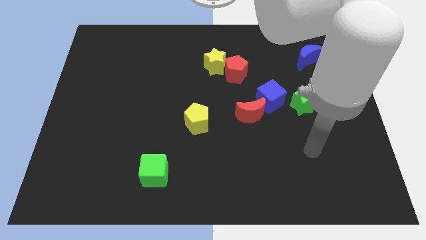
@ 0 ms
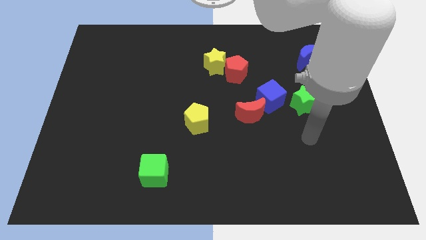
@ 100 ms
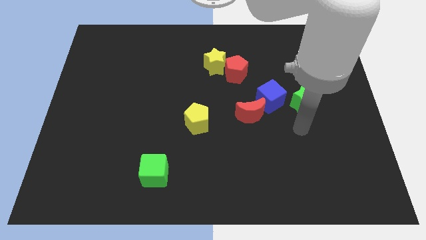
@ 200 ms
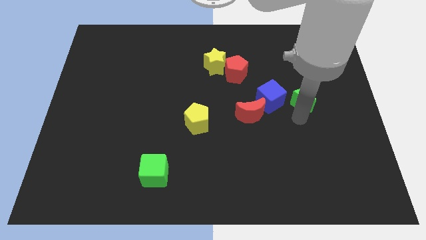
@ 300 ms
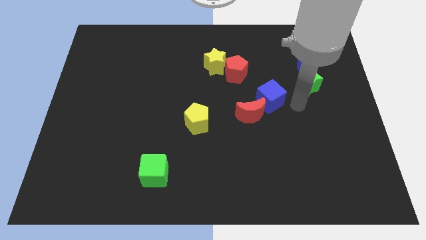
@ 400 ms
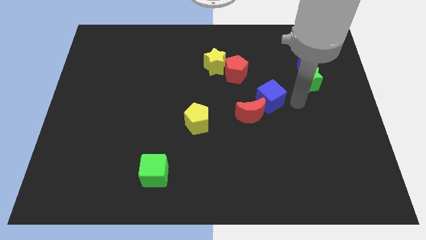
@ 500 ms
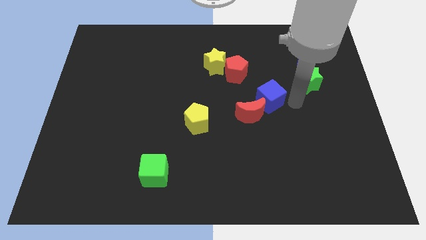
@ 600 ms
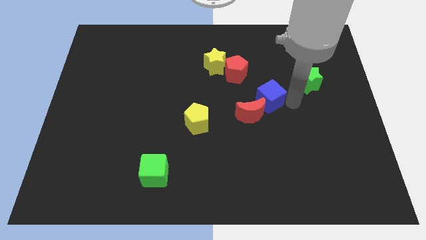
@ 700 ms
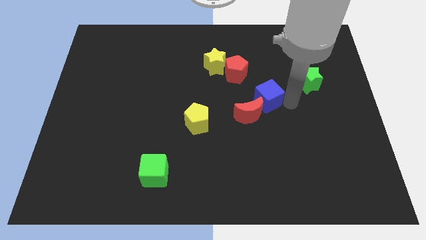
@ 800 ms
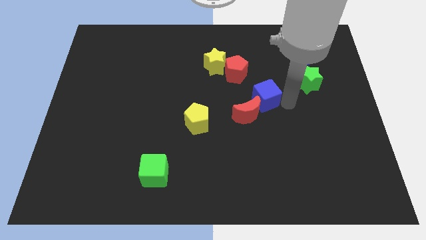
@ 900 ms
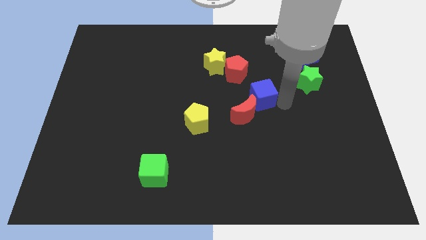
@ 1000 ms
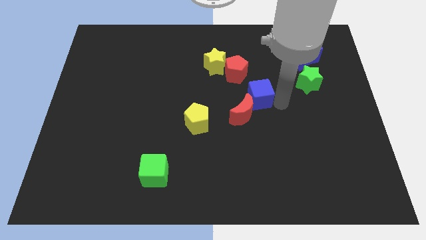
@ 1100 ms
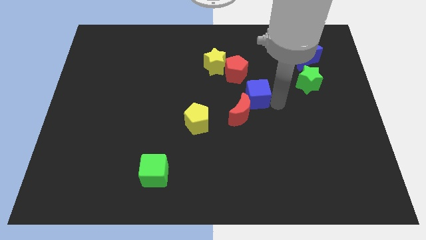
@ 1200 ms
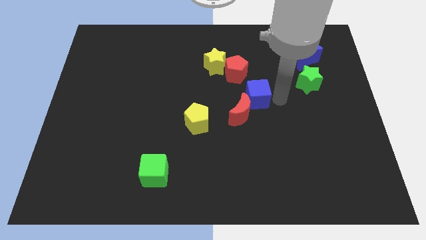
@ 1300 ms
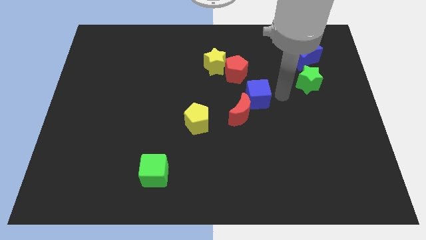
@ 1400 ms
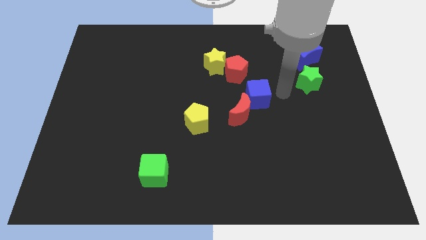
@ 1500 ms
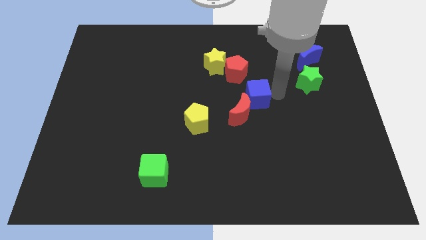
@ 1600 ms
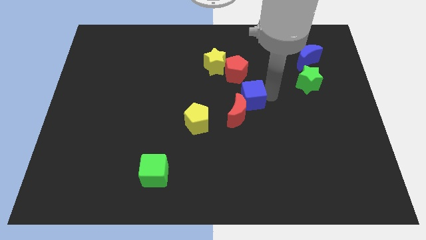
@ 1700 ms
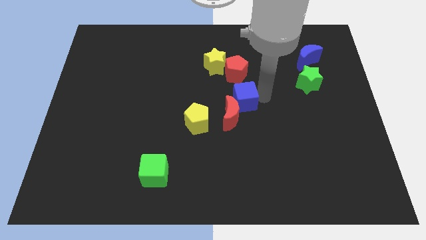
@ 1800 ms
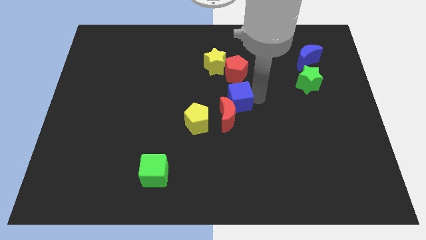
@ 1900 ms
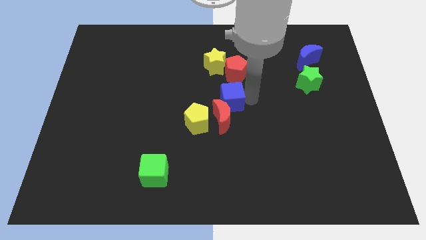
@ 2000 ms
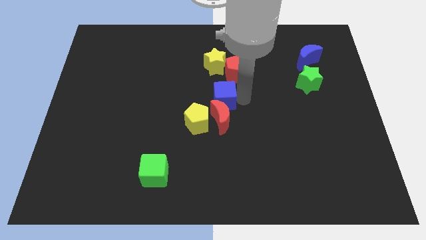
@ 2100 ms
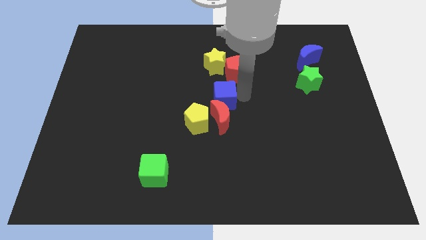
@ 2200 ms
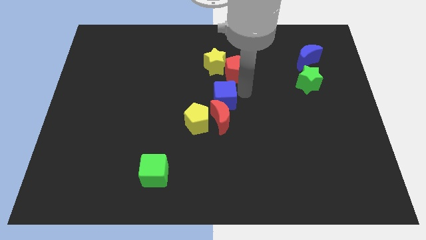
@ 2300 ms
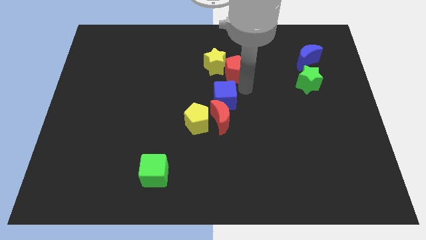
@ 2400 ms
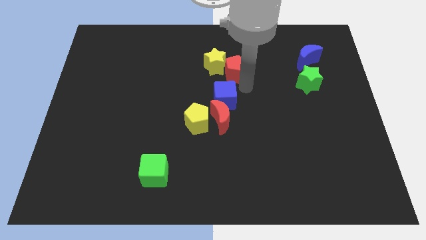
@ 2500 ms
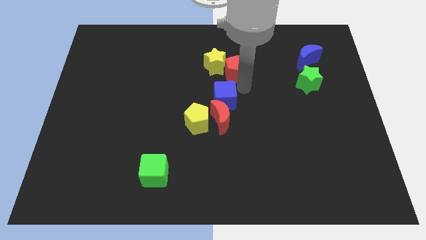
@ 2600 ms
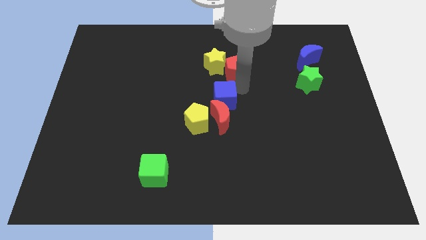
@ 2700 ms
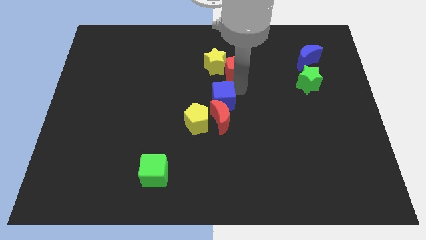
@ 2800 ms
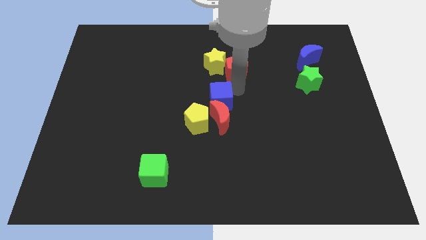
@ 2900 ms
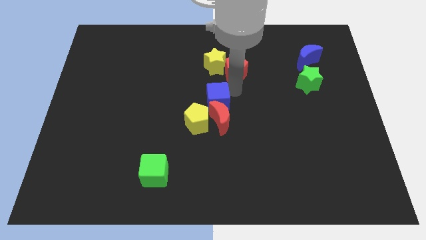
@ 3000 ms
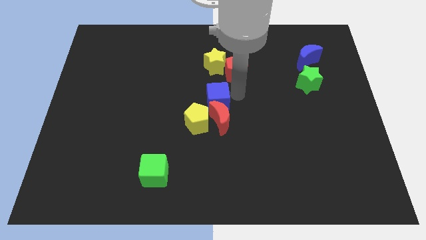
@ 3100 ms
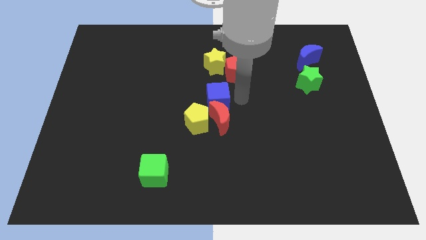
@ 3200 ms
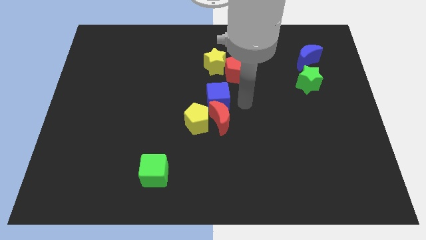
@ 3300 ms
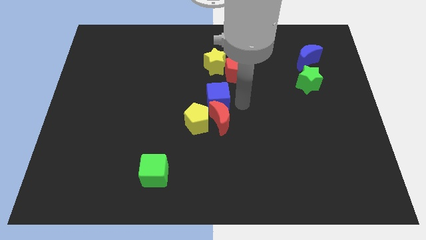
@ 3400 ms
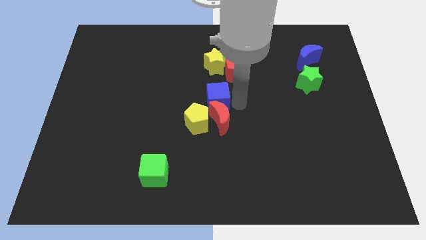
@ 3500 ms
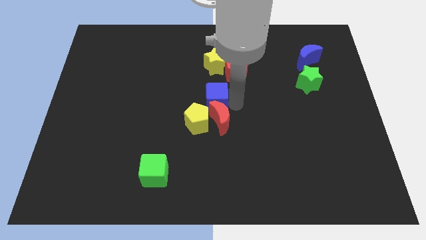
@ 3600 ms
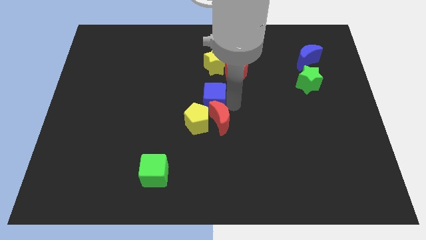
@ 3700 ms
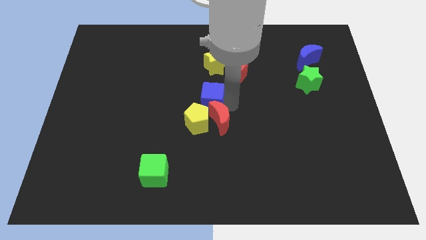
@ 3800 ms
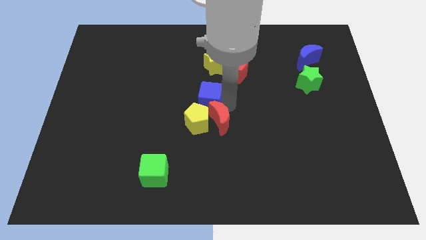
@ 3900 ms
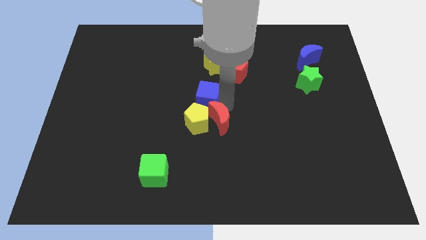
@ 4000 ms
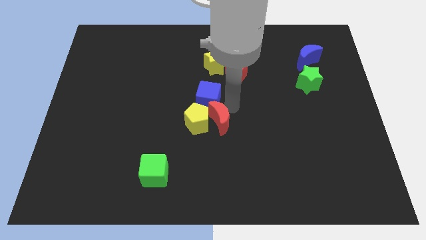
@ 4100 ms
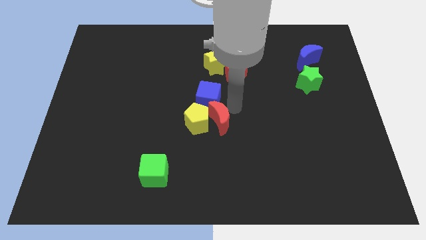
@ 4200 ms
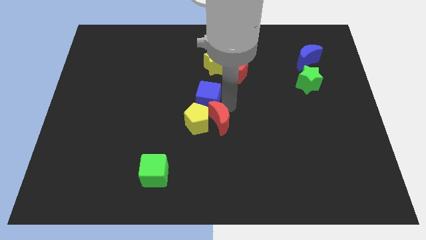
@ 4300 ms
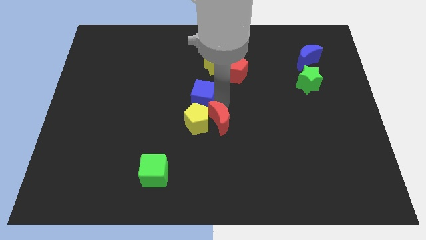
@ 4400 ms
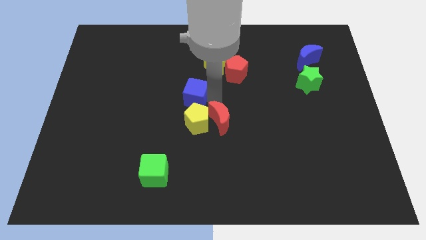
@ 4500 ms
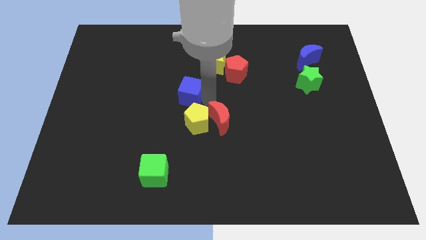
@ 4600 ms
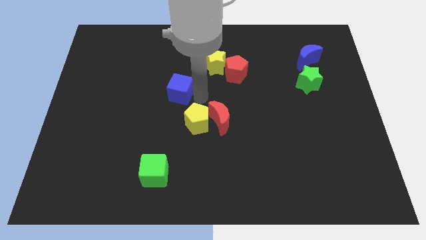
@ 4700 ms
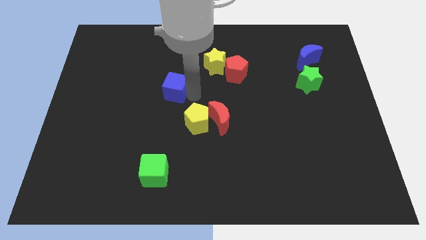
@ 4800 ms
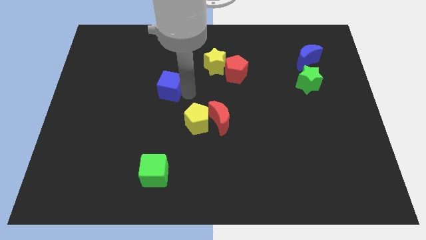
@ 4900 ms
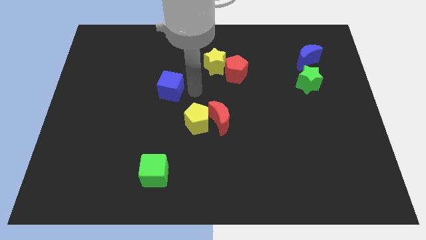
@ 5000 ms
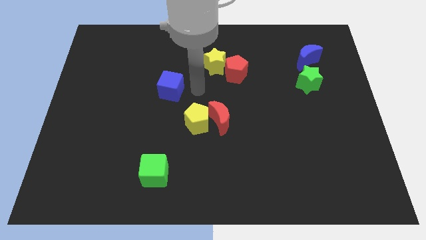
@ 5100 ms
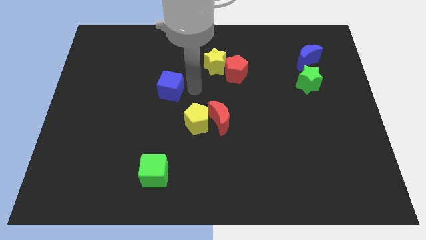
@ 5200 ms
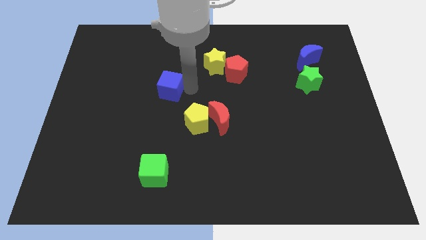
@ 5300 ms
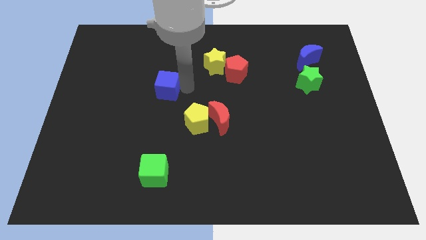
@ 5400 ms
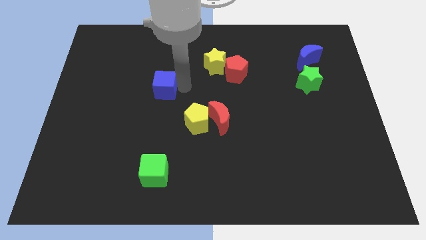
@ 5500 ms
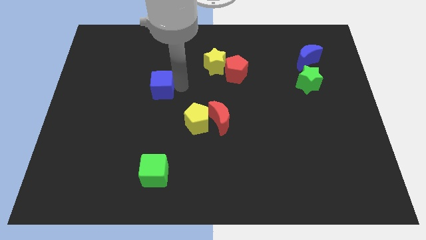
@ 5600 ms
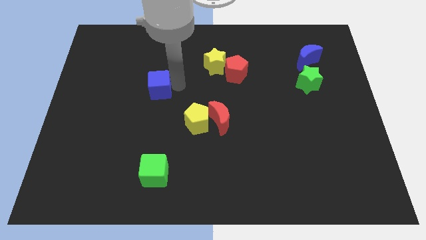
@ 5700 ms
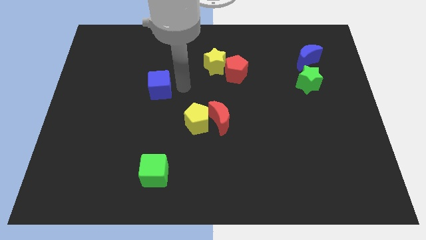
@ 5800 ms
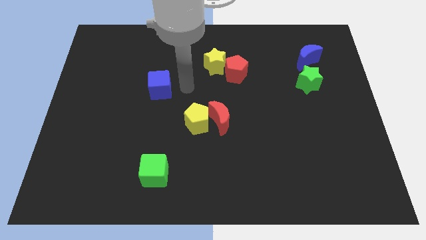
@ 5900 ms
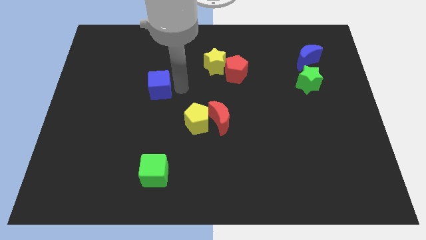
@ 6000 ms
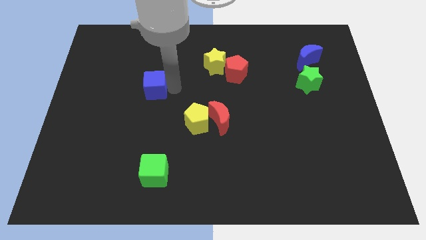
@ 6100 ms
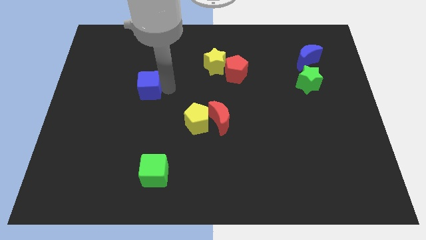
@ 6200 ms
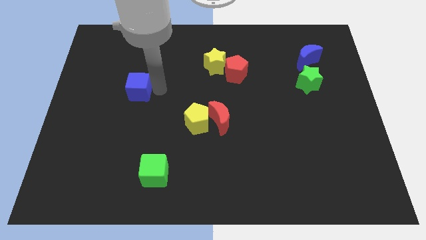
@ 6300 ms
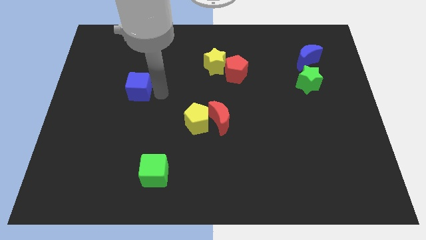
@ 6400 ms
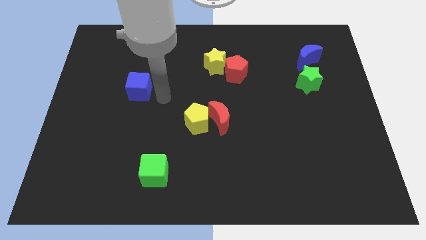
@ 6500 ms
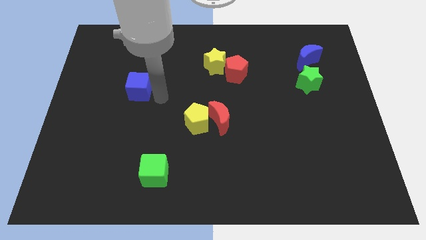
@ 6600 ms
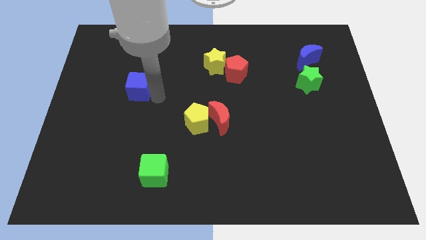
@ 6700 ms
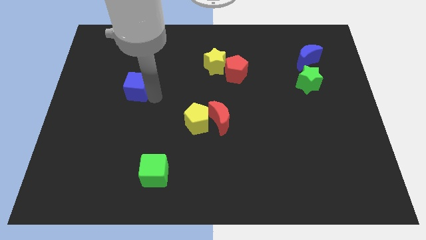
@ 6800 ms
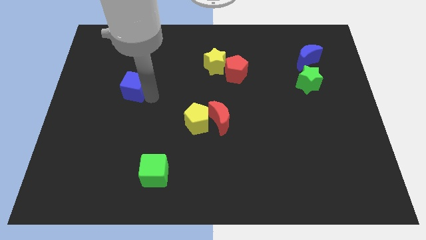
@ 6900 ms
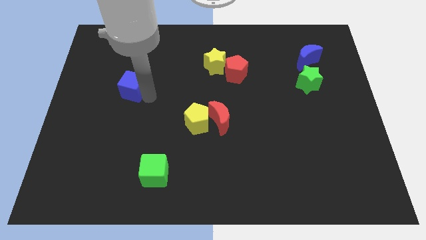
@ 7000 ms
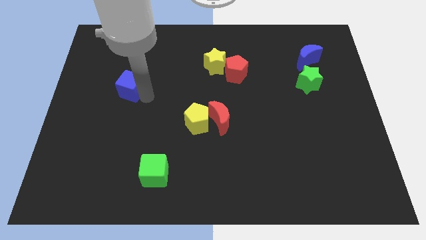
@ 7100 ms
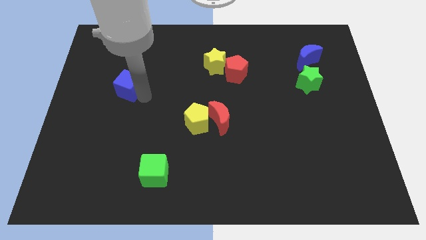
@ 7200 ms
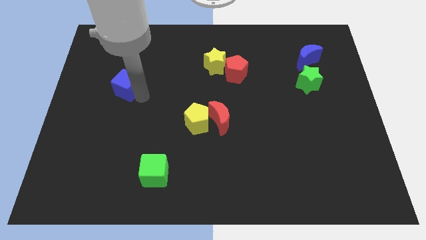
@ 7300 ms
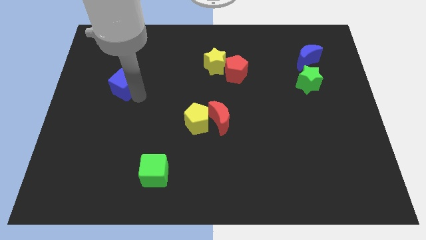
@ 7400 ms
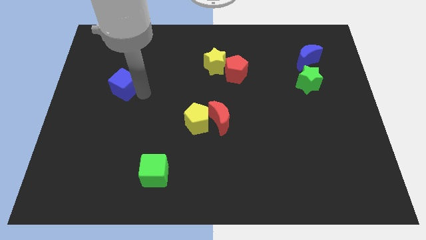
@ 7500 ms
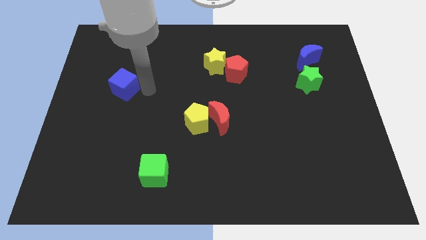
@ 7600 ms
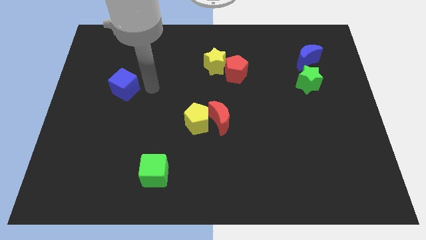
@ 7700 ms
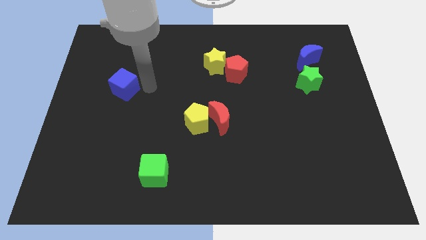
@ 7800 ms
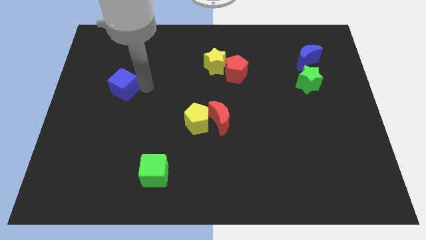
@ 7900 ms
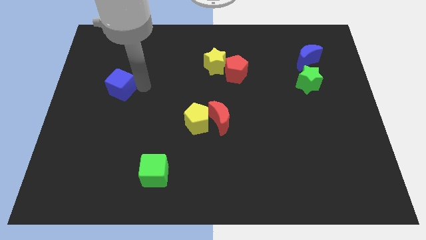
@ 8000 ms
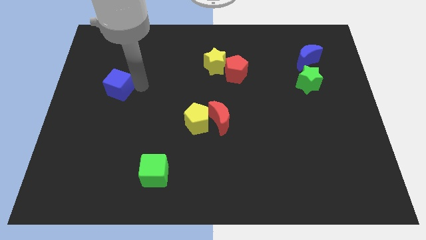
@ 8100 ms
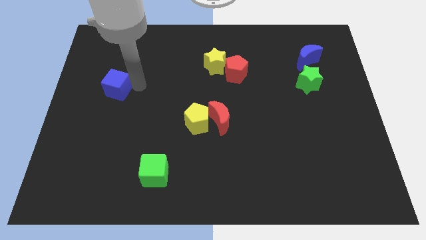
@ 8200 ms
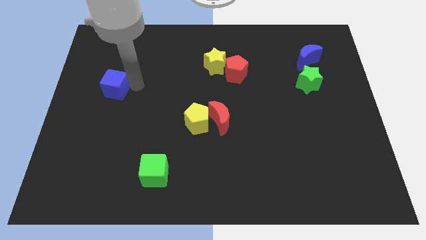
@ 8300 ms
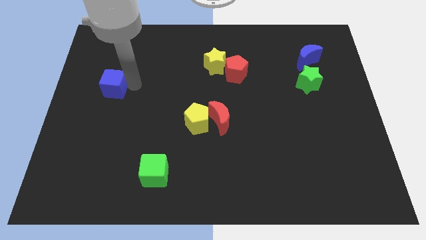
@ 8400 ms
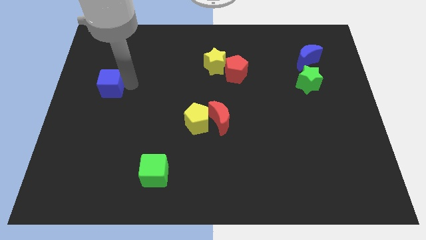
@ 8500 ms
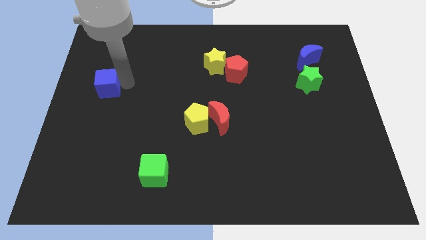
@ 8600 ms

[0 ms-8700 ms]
move the blue cube to the left side of the board
